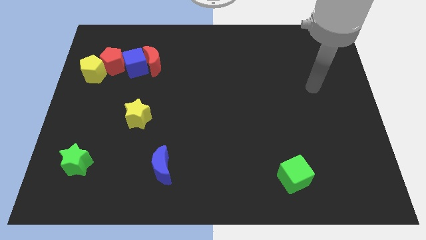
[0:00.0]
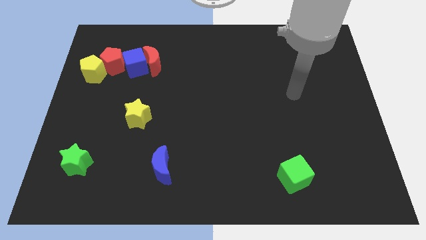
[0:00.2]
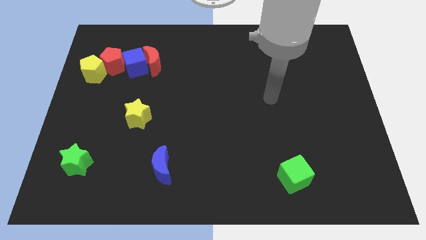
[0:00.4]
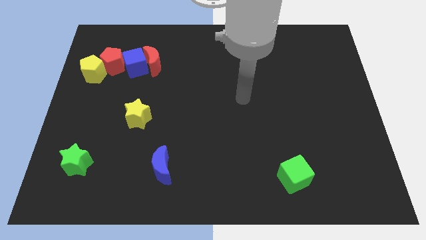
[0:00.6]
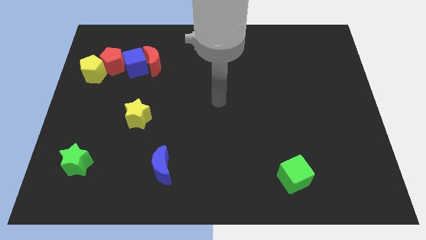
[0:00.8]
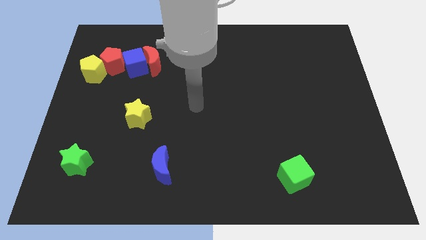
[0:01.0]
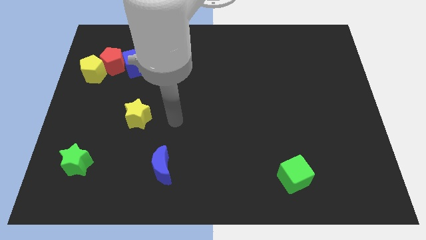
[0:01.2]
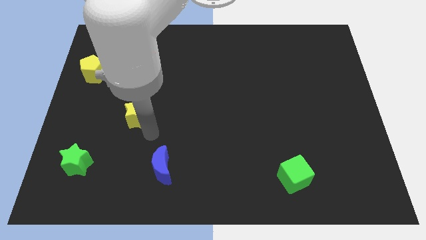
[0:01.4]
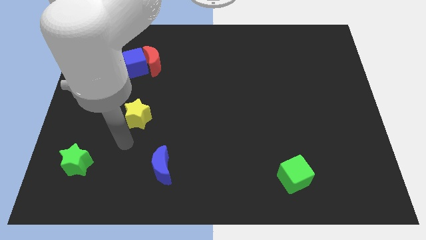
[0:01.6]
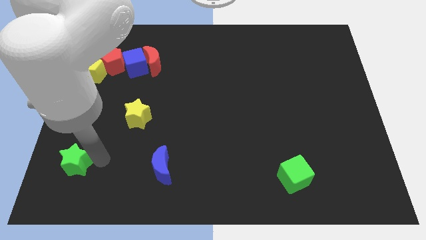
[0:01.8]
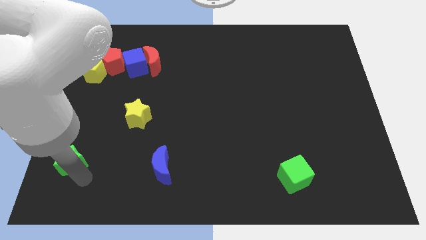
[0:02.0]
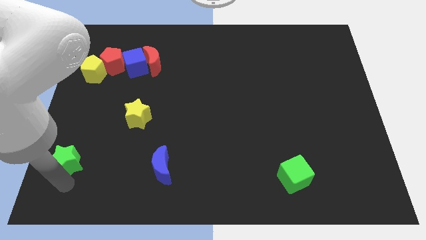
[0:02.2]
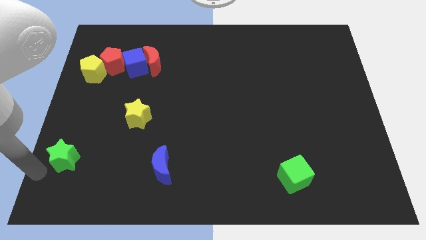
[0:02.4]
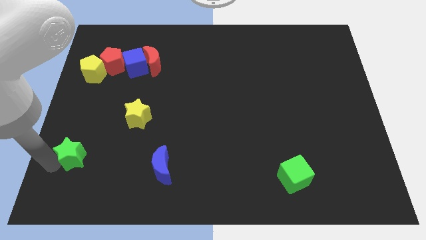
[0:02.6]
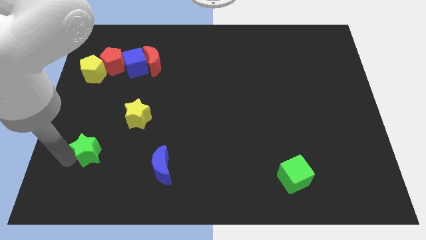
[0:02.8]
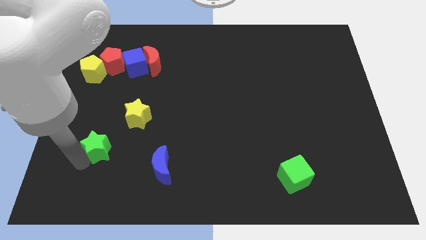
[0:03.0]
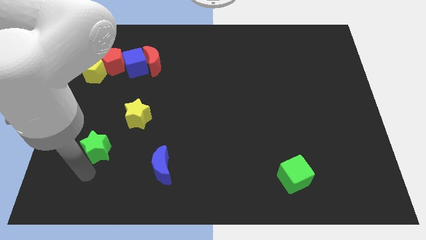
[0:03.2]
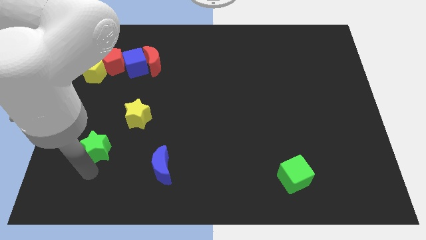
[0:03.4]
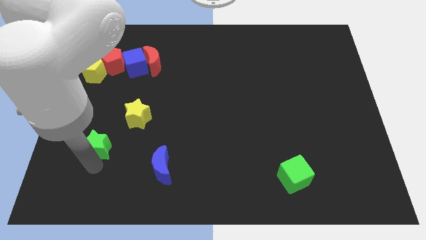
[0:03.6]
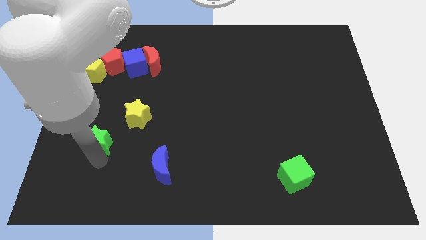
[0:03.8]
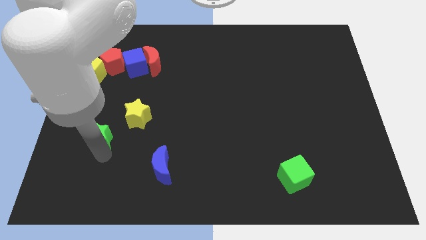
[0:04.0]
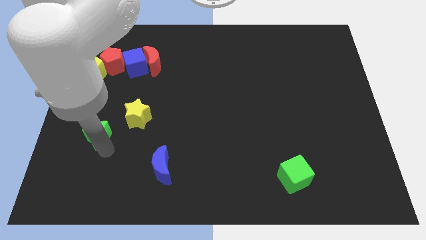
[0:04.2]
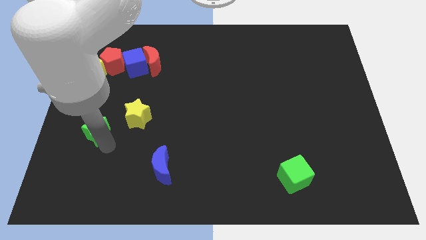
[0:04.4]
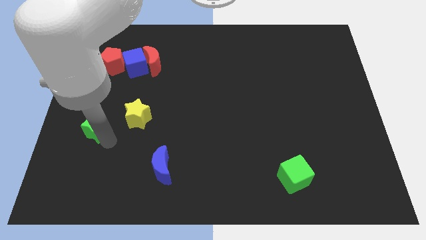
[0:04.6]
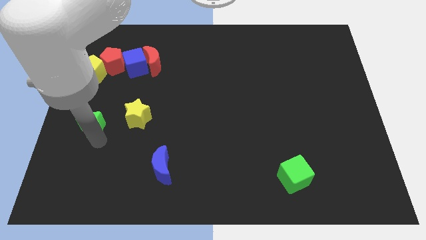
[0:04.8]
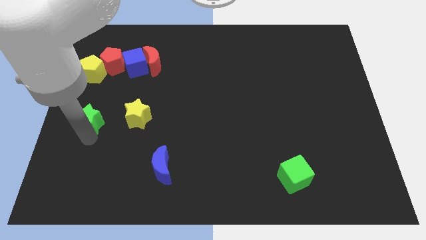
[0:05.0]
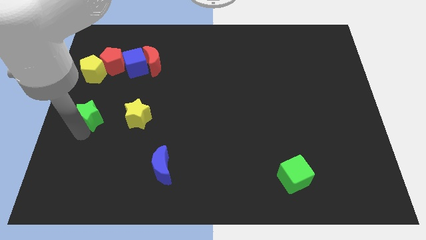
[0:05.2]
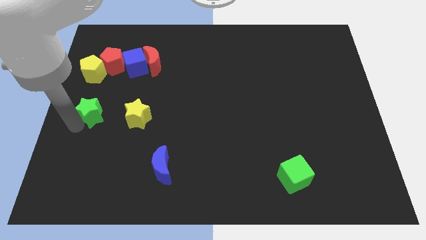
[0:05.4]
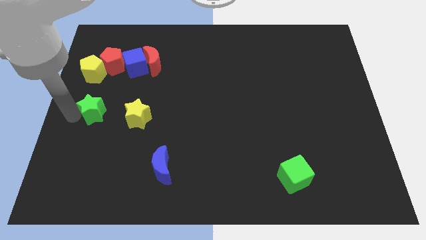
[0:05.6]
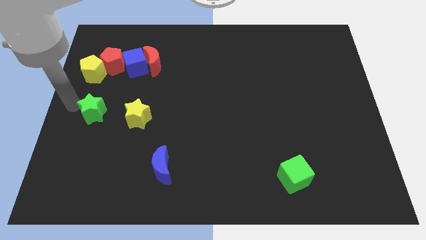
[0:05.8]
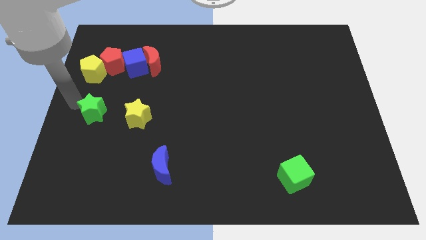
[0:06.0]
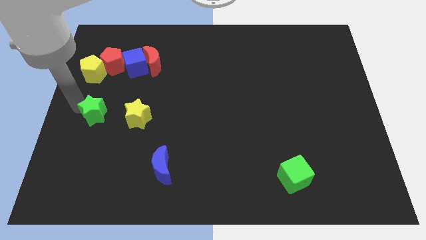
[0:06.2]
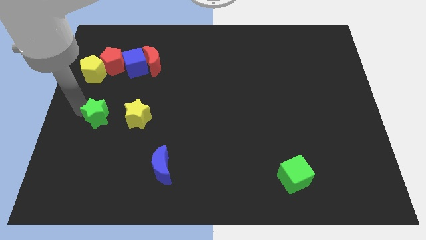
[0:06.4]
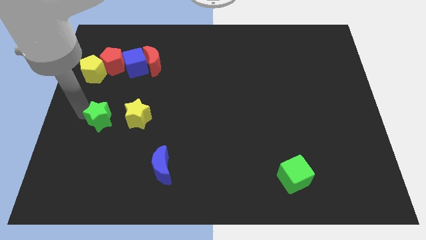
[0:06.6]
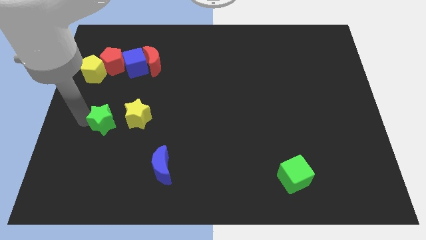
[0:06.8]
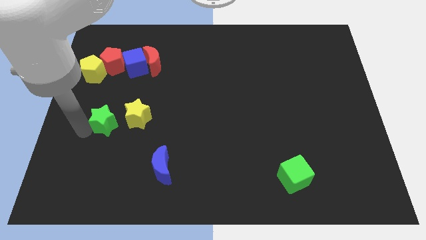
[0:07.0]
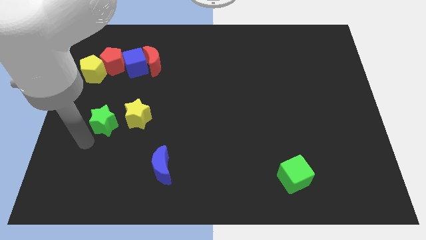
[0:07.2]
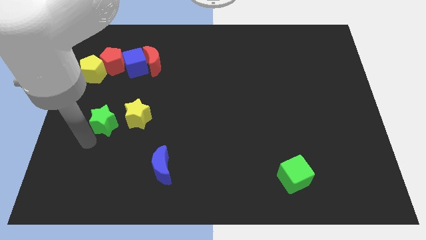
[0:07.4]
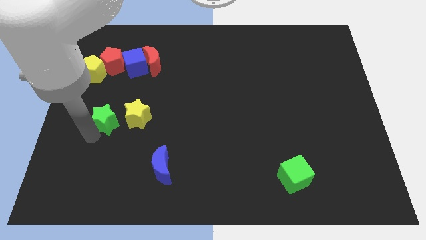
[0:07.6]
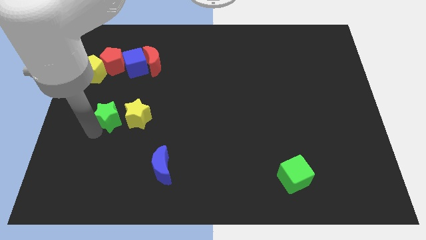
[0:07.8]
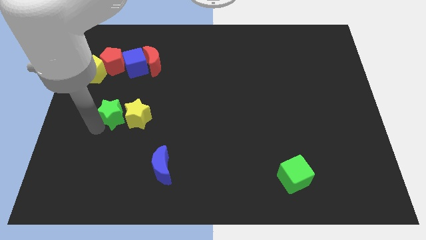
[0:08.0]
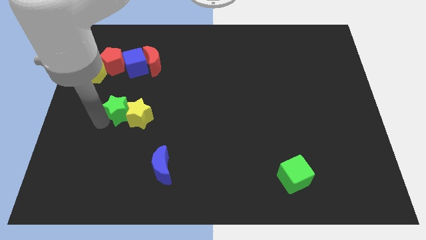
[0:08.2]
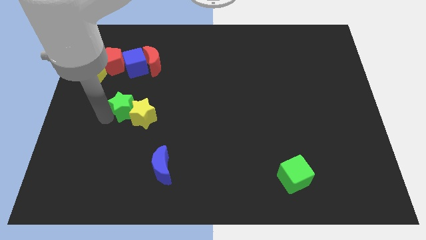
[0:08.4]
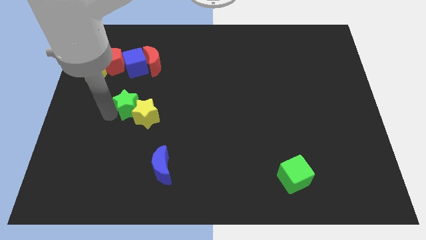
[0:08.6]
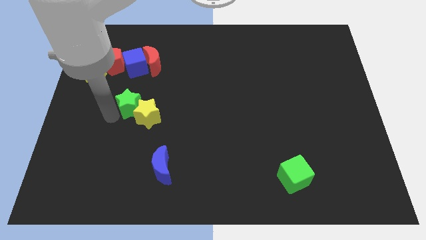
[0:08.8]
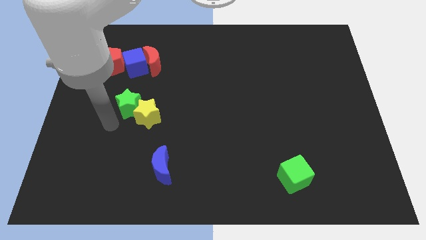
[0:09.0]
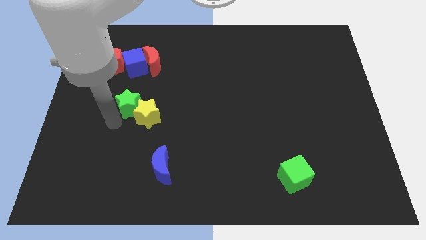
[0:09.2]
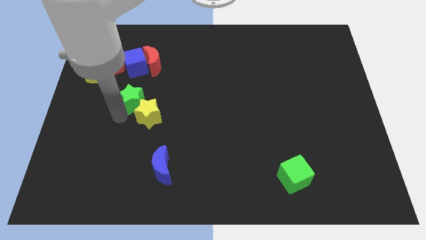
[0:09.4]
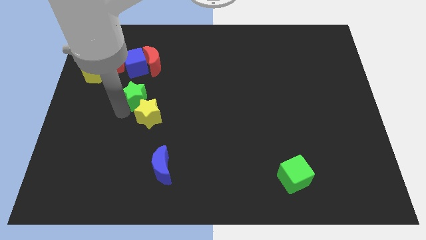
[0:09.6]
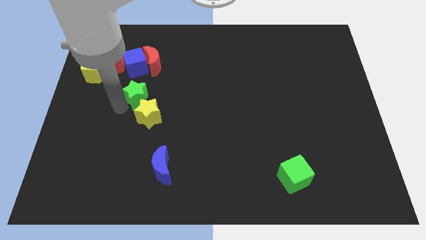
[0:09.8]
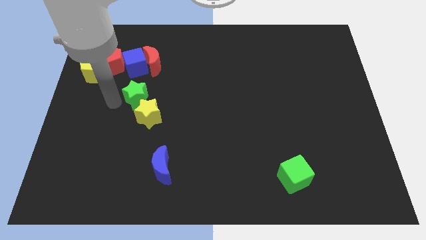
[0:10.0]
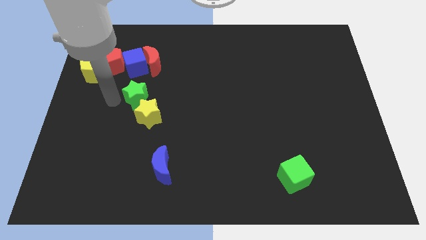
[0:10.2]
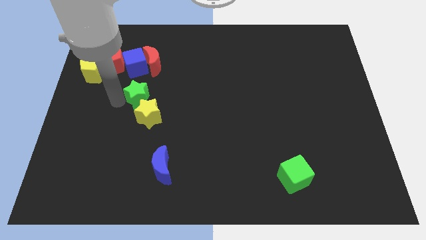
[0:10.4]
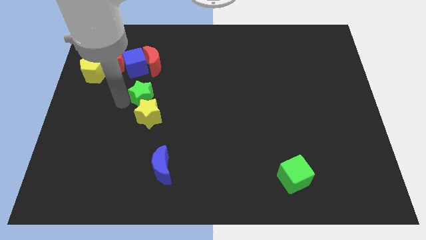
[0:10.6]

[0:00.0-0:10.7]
slide the green star upwards and then to the right

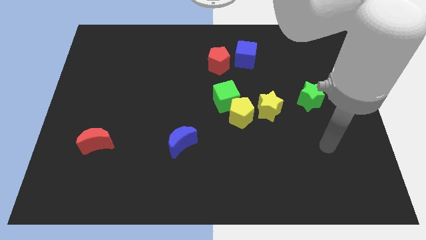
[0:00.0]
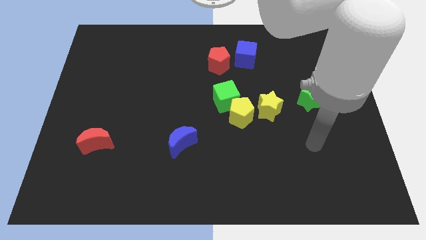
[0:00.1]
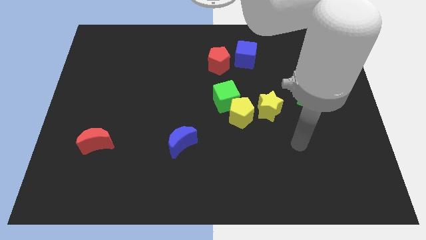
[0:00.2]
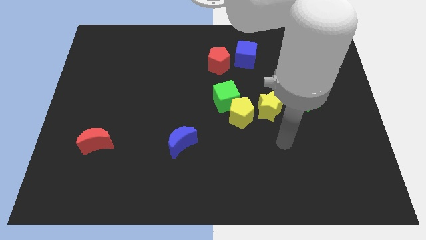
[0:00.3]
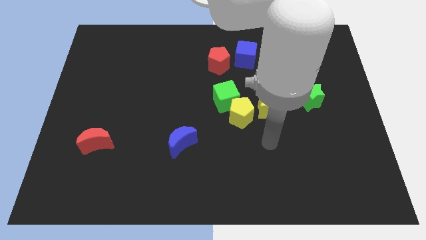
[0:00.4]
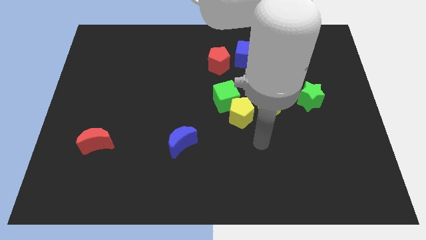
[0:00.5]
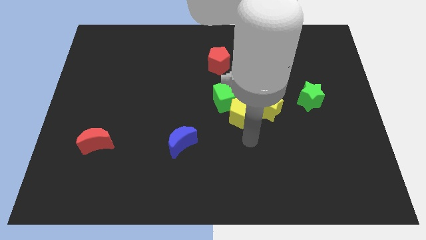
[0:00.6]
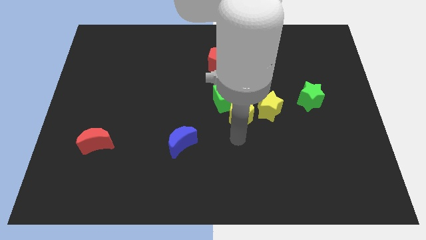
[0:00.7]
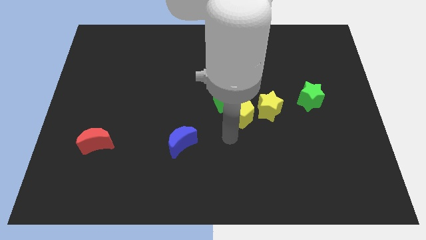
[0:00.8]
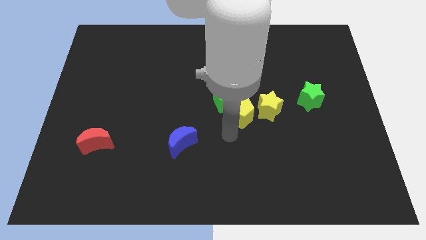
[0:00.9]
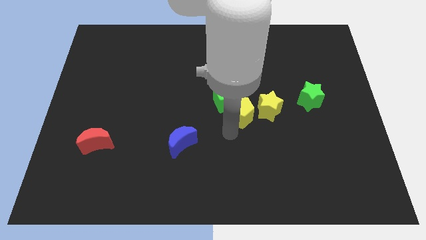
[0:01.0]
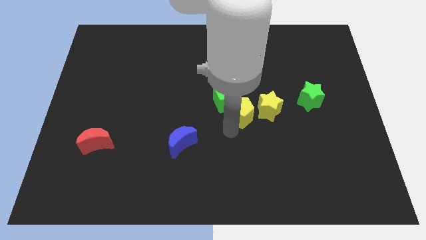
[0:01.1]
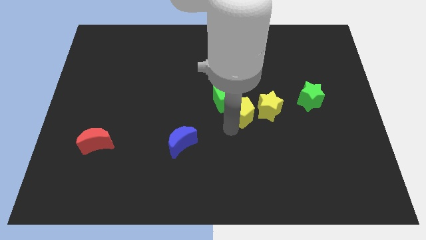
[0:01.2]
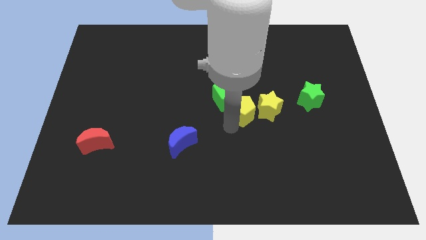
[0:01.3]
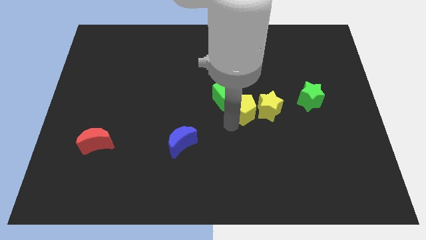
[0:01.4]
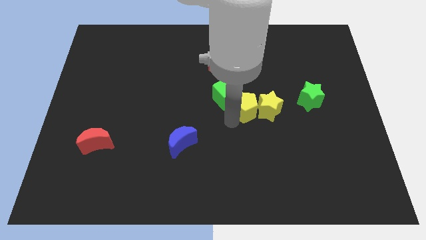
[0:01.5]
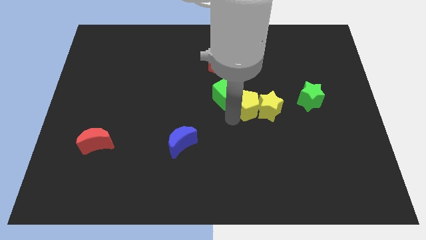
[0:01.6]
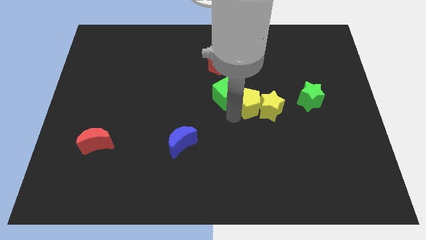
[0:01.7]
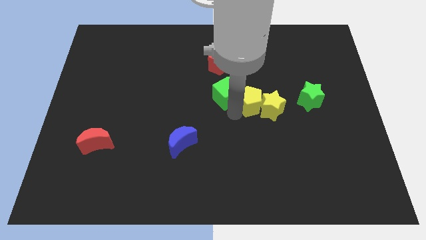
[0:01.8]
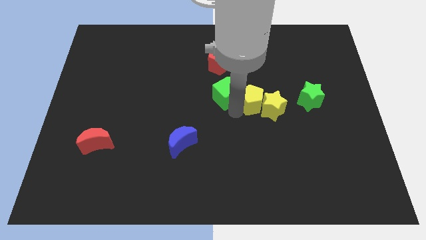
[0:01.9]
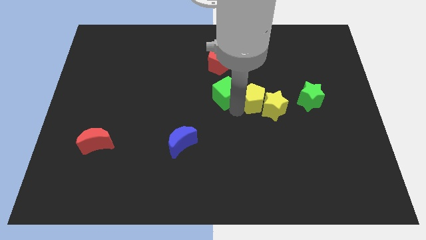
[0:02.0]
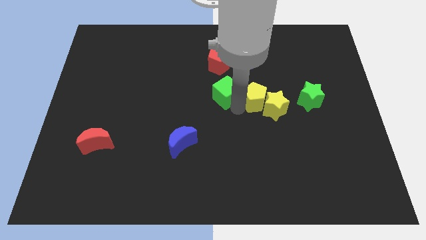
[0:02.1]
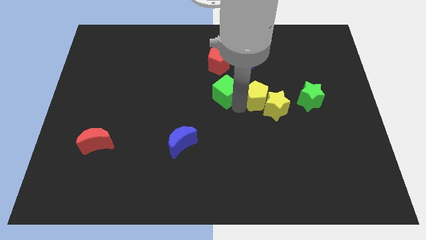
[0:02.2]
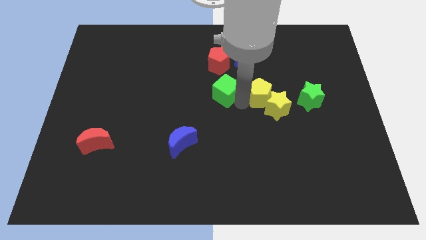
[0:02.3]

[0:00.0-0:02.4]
slide the yellow pentagon upwards and to the right a little bit
